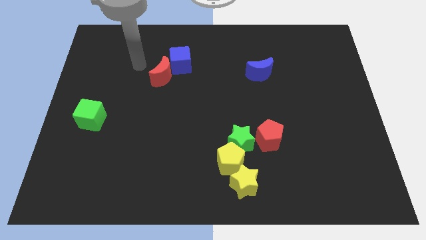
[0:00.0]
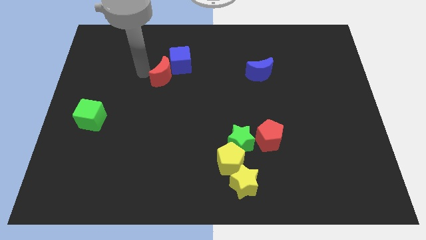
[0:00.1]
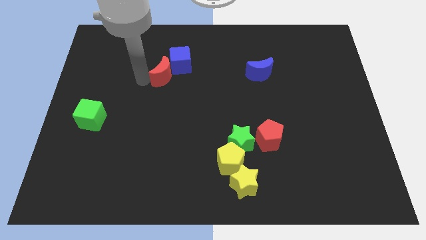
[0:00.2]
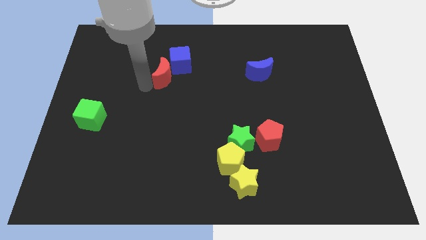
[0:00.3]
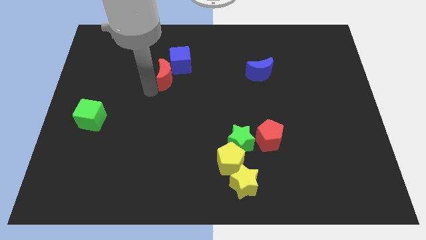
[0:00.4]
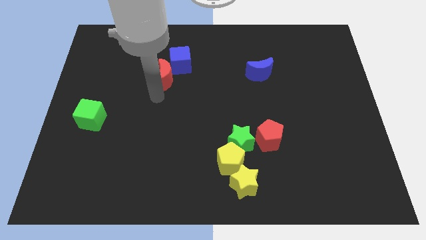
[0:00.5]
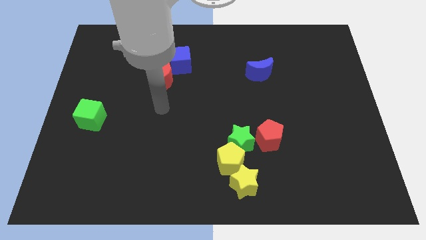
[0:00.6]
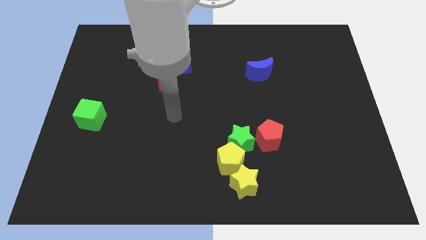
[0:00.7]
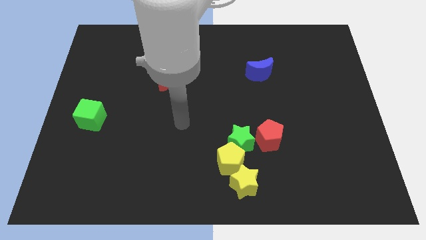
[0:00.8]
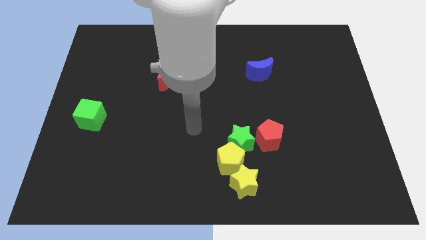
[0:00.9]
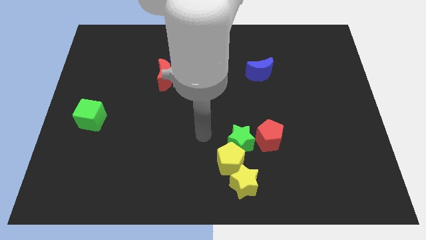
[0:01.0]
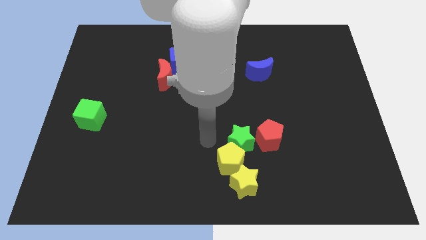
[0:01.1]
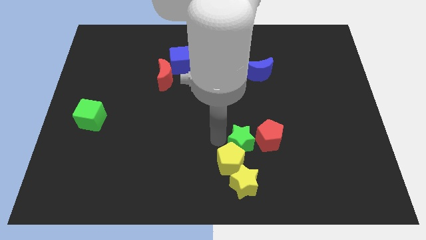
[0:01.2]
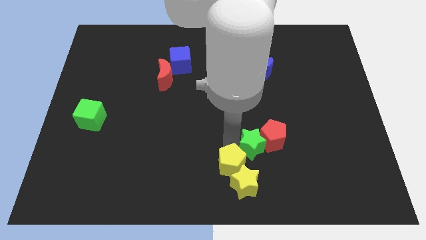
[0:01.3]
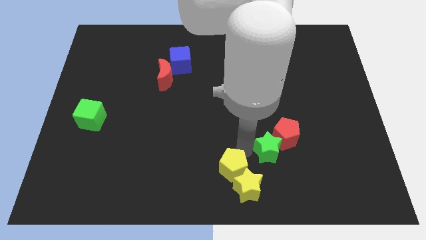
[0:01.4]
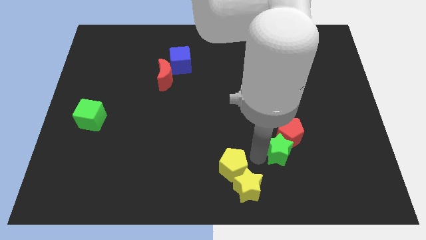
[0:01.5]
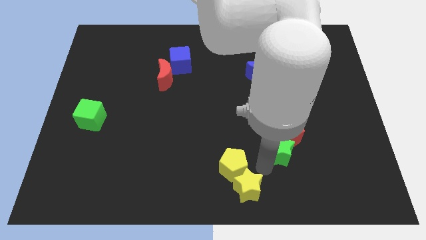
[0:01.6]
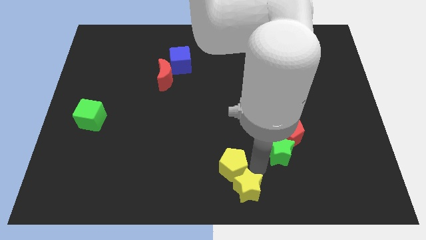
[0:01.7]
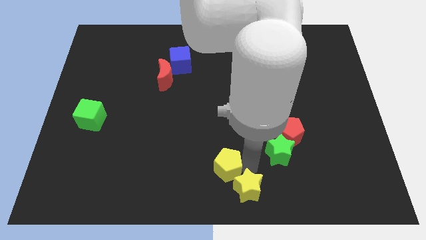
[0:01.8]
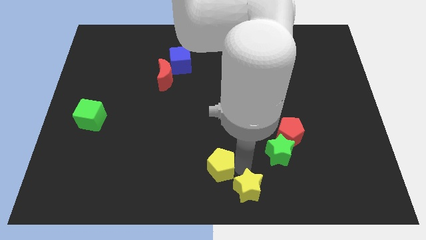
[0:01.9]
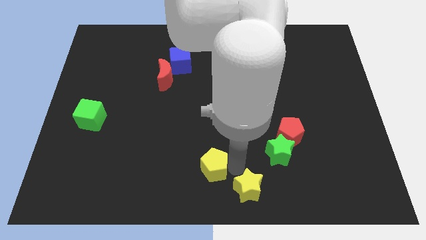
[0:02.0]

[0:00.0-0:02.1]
separate the yellow pentagon from the green star and yellow star

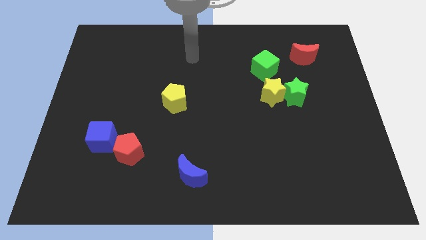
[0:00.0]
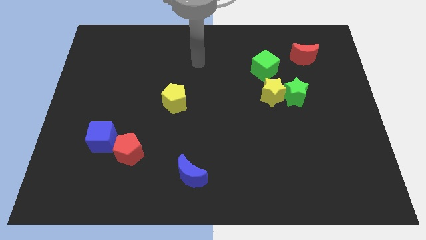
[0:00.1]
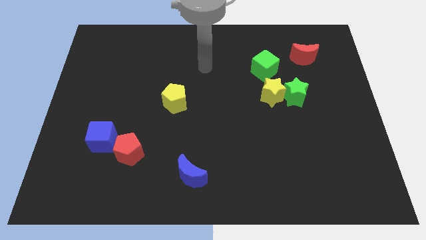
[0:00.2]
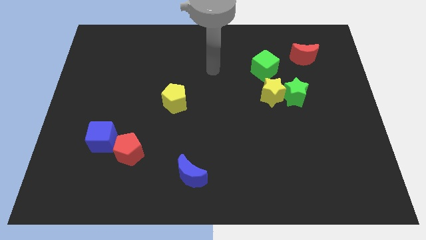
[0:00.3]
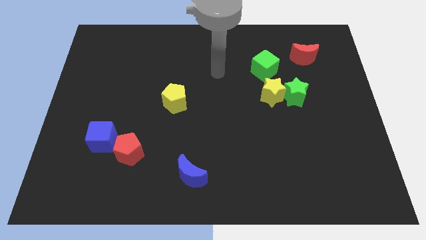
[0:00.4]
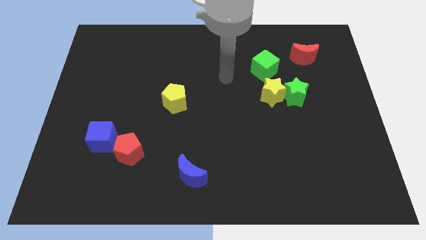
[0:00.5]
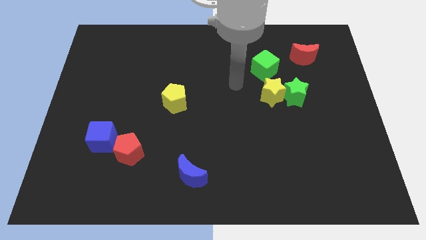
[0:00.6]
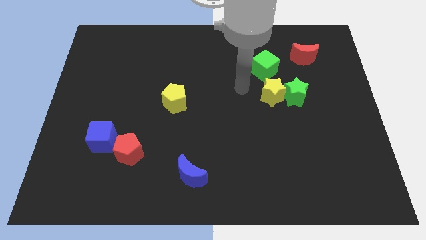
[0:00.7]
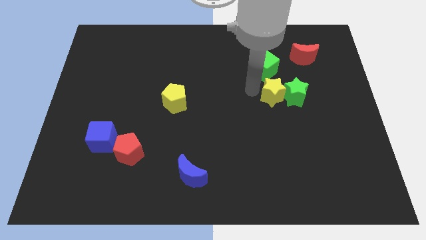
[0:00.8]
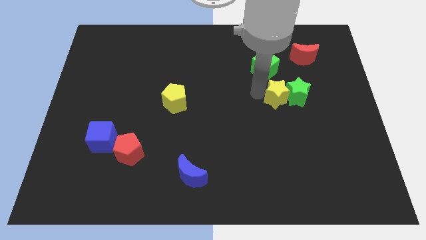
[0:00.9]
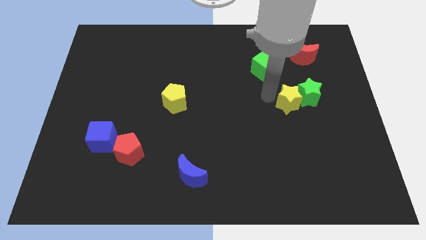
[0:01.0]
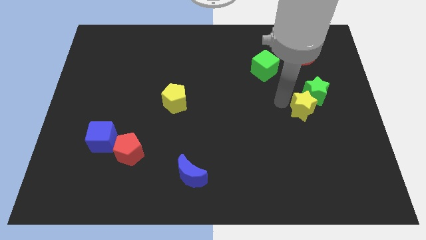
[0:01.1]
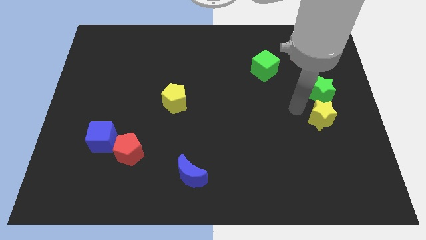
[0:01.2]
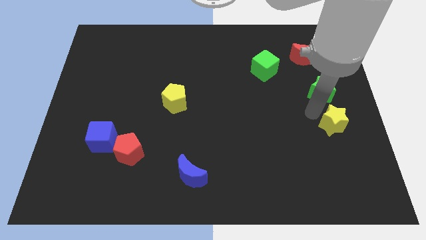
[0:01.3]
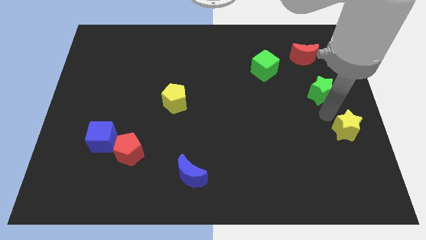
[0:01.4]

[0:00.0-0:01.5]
move the green star away from the yellow star

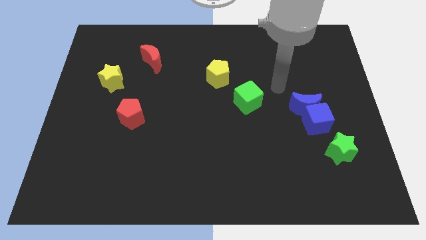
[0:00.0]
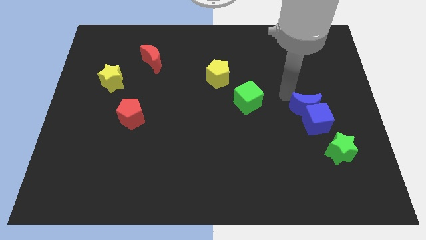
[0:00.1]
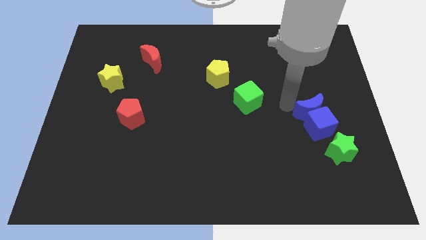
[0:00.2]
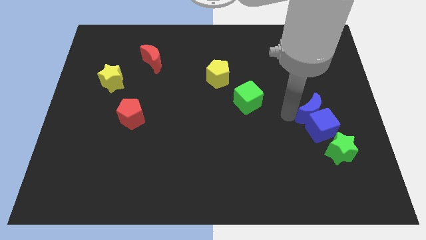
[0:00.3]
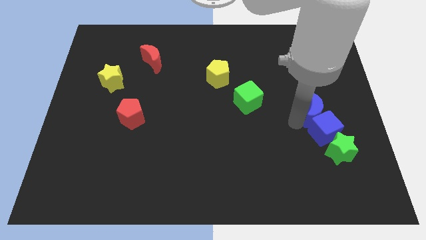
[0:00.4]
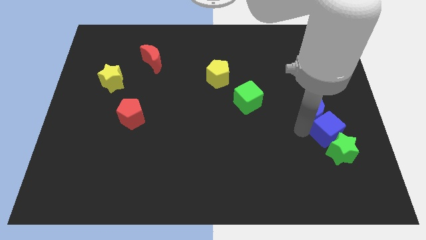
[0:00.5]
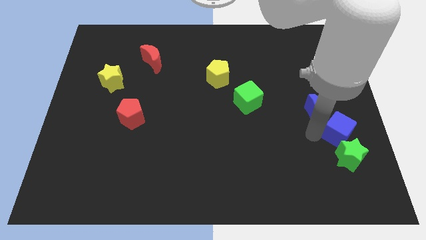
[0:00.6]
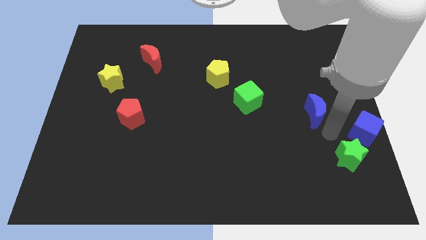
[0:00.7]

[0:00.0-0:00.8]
move the blue moon away from the blue cube

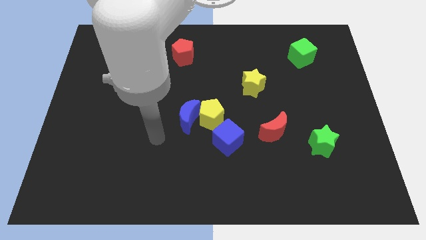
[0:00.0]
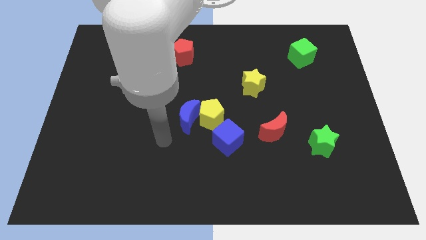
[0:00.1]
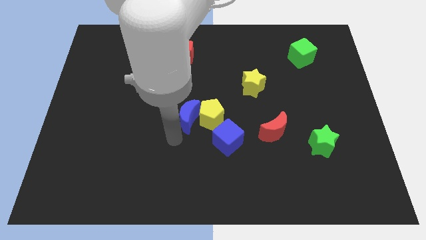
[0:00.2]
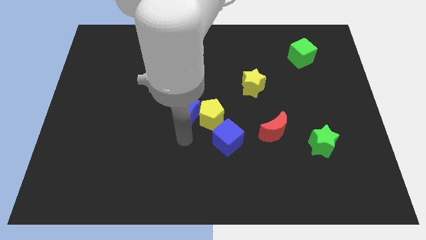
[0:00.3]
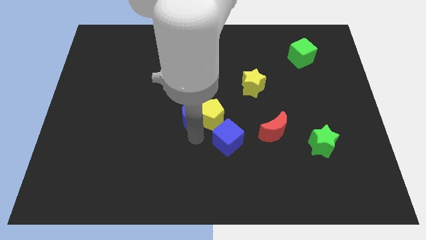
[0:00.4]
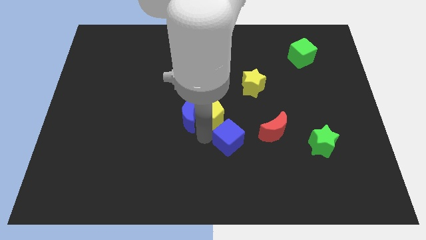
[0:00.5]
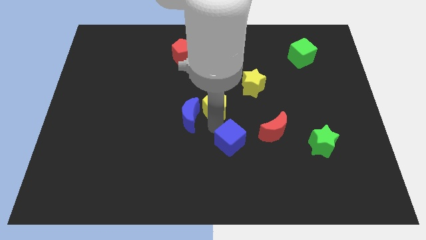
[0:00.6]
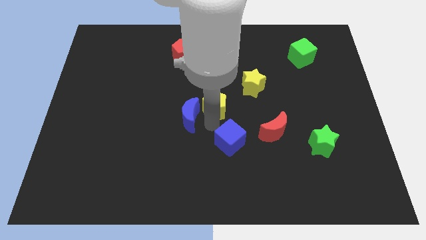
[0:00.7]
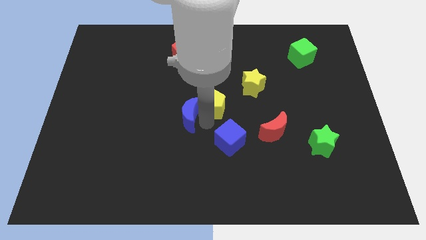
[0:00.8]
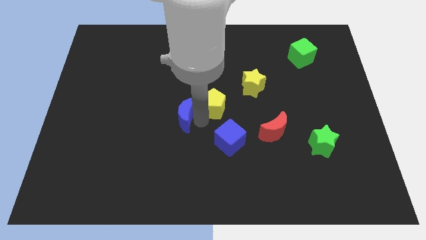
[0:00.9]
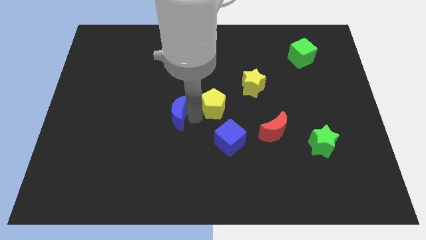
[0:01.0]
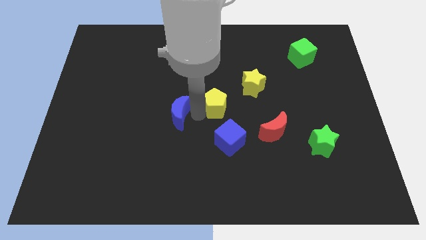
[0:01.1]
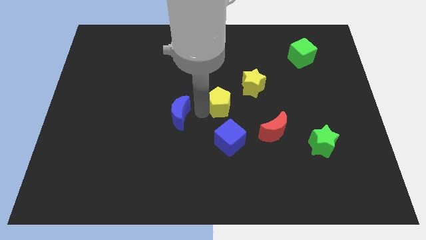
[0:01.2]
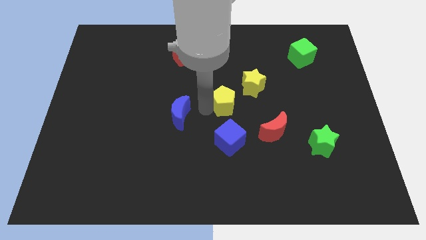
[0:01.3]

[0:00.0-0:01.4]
move the blue moon away from the yellow pentagon

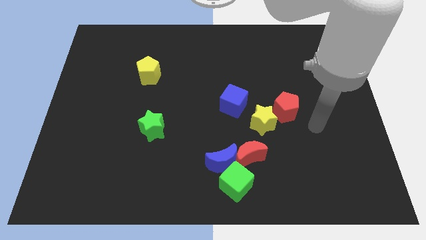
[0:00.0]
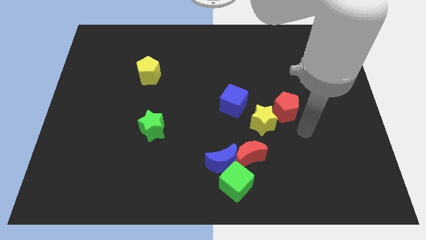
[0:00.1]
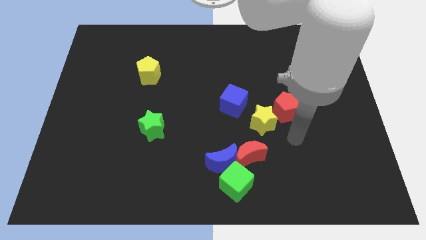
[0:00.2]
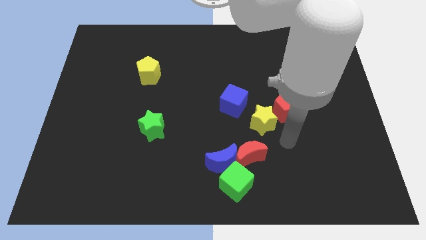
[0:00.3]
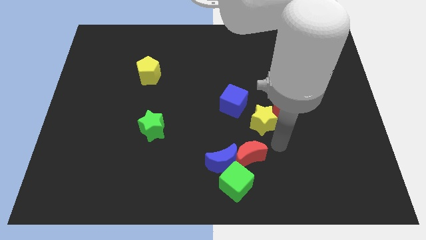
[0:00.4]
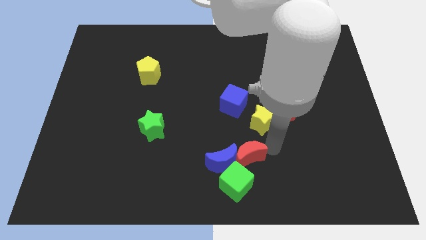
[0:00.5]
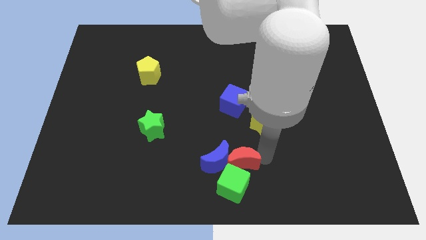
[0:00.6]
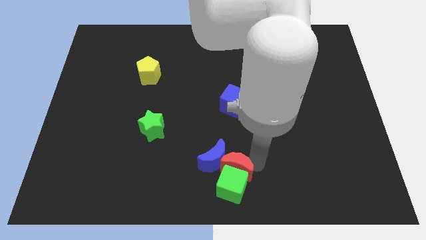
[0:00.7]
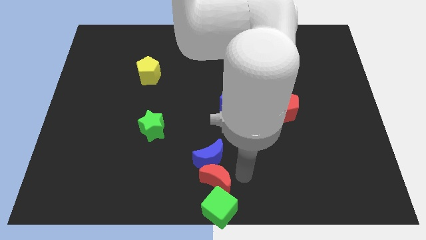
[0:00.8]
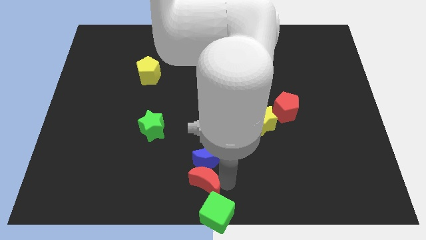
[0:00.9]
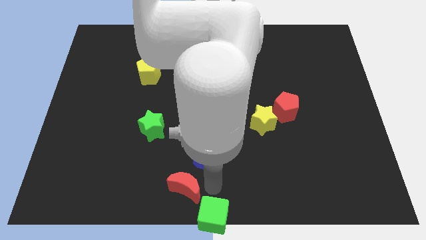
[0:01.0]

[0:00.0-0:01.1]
pull the blue moon apart from the green cube and red moon

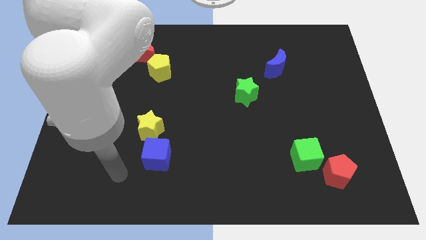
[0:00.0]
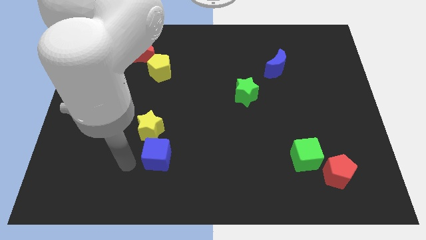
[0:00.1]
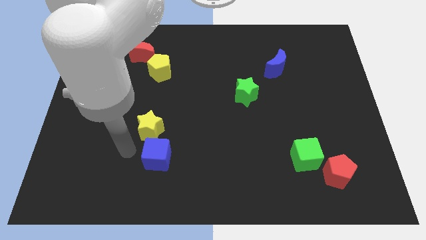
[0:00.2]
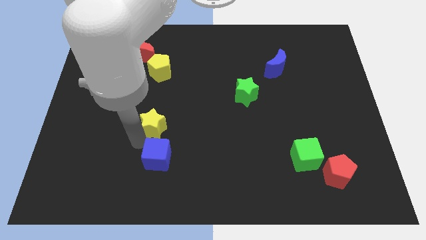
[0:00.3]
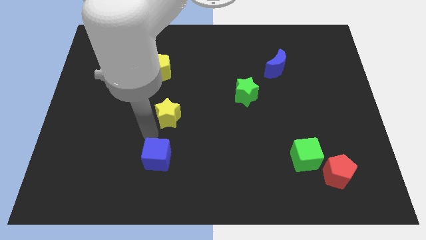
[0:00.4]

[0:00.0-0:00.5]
pull the blue cube apart from the yellow star

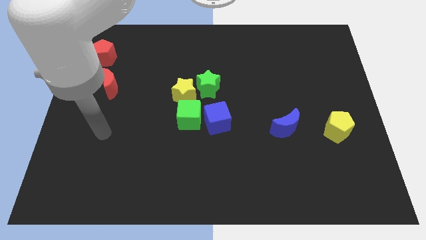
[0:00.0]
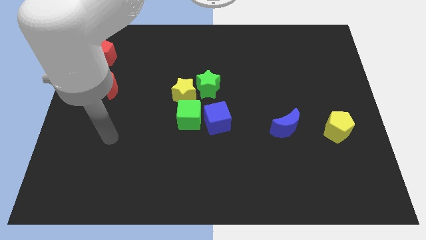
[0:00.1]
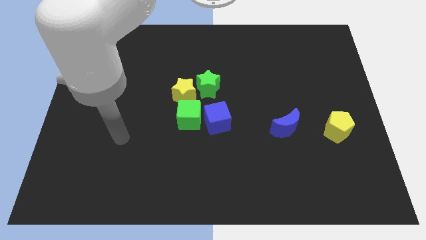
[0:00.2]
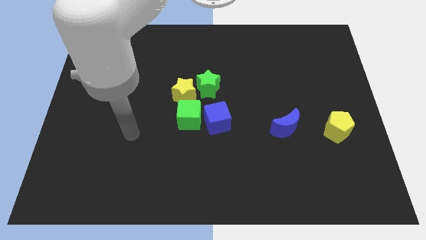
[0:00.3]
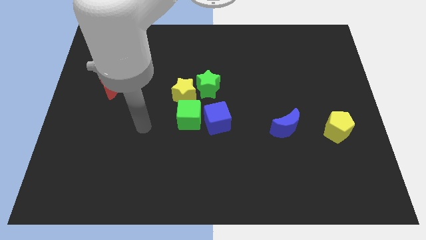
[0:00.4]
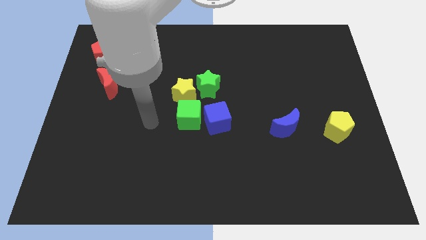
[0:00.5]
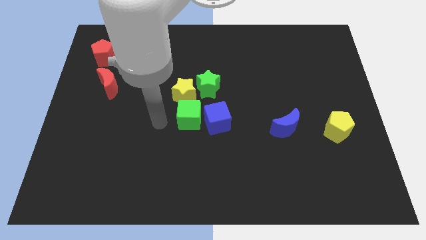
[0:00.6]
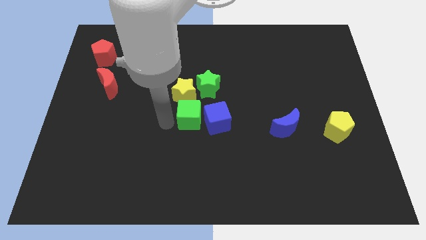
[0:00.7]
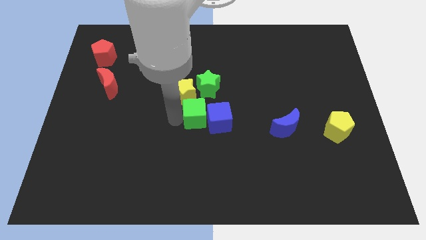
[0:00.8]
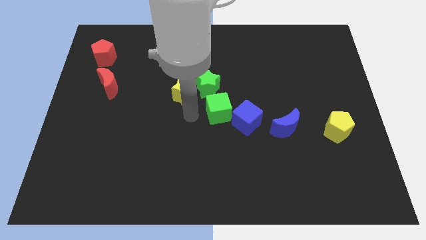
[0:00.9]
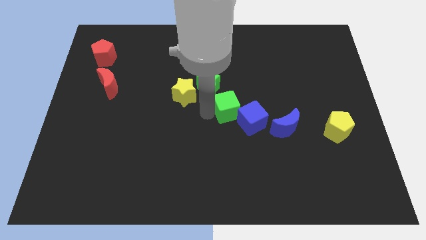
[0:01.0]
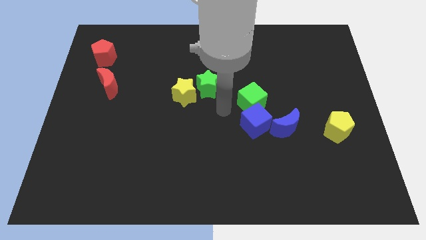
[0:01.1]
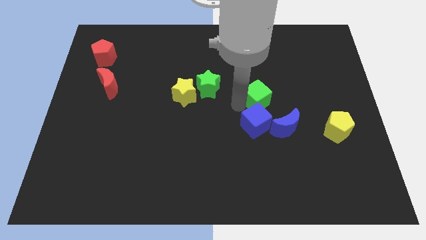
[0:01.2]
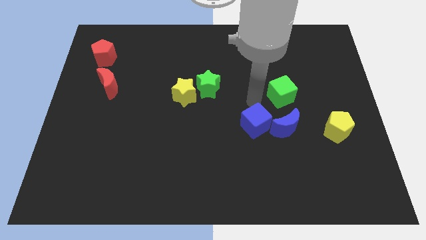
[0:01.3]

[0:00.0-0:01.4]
separate the blue cube from the green cube

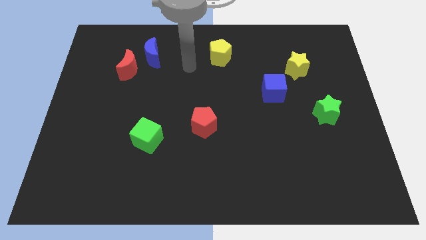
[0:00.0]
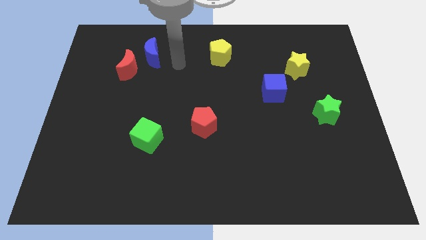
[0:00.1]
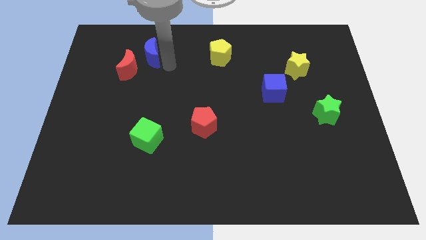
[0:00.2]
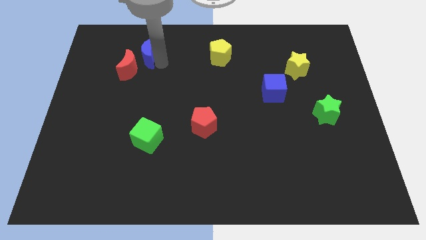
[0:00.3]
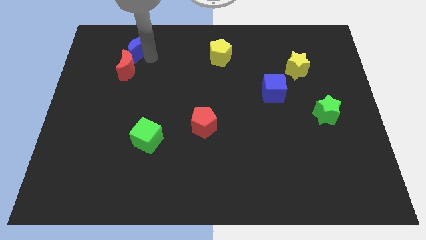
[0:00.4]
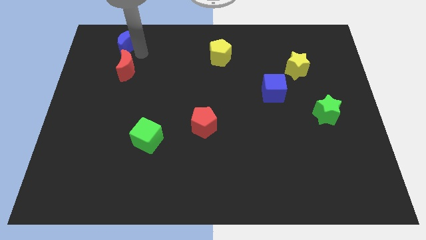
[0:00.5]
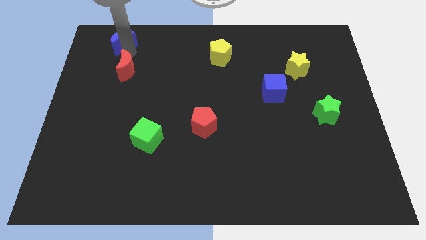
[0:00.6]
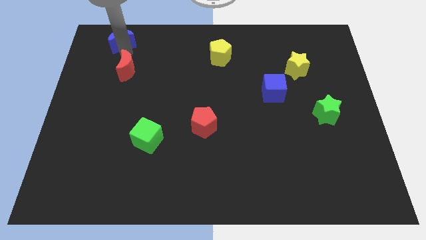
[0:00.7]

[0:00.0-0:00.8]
separate the red moon from the blue moon
